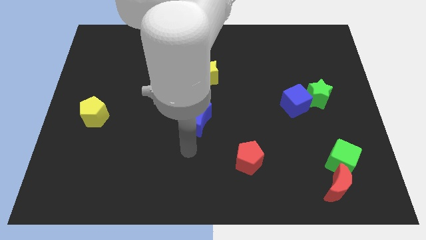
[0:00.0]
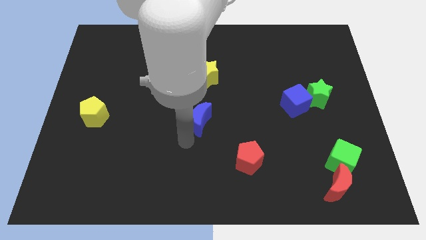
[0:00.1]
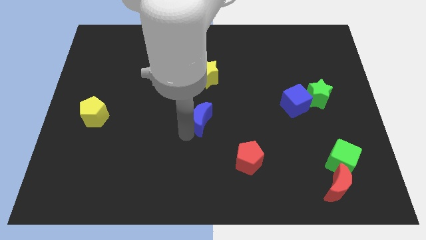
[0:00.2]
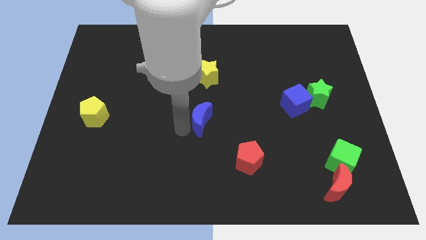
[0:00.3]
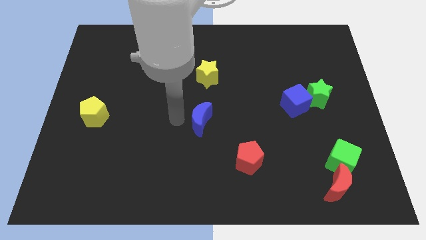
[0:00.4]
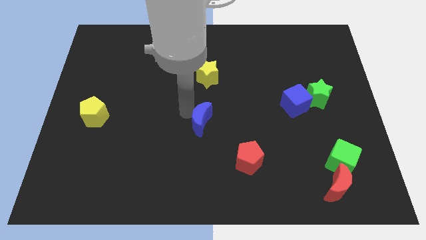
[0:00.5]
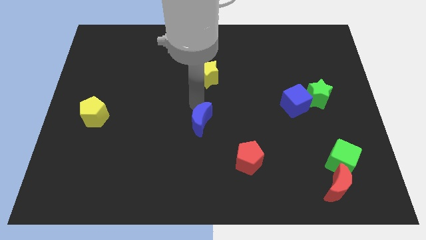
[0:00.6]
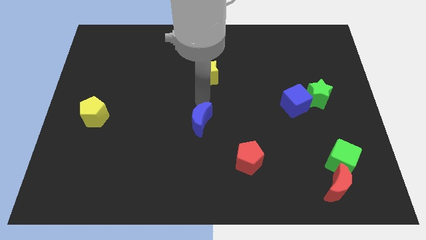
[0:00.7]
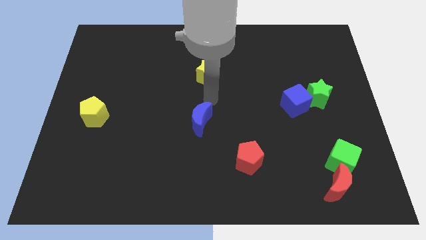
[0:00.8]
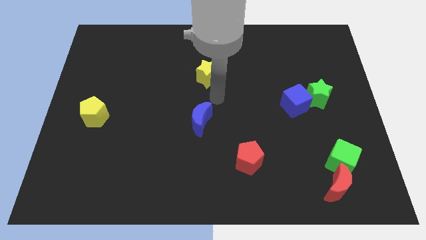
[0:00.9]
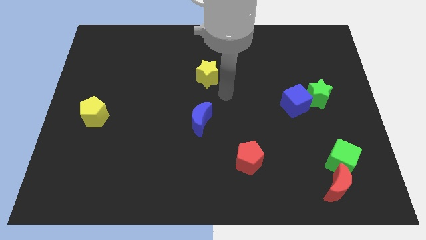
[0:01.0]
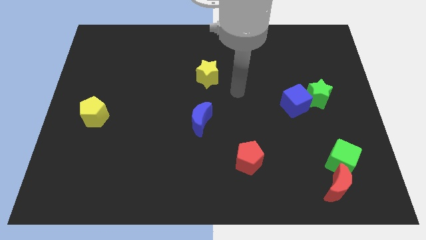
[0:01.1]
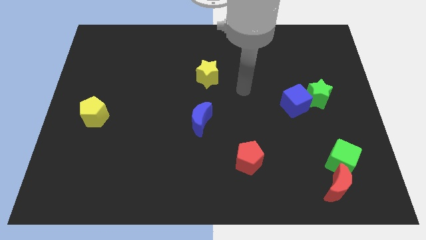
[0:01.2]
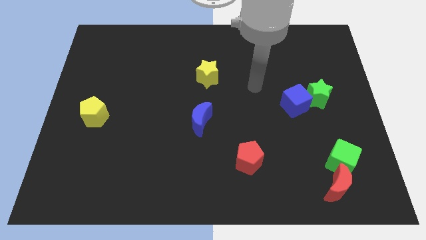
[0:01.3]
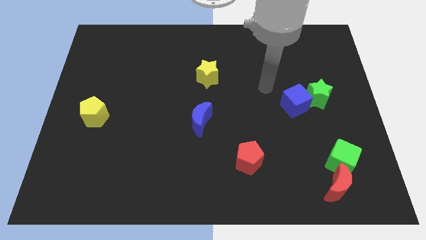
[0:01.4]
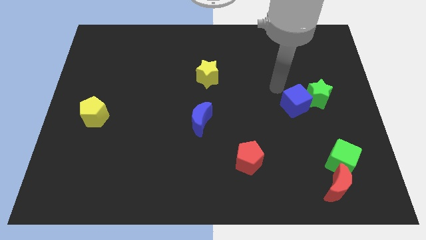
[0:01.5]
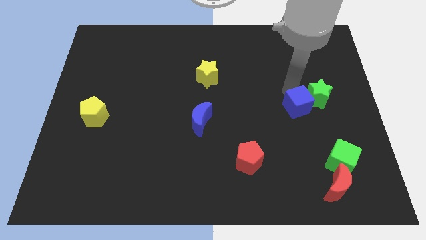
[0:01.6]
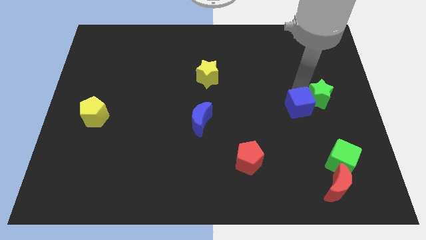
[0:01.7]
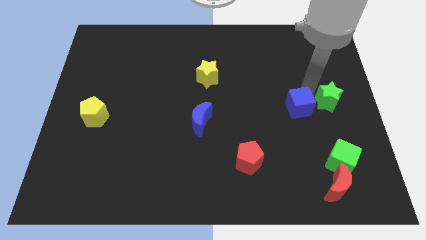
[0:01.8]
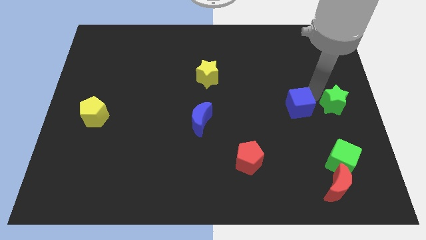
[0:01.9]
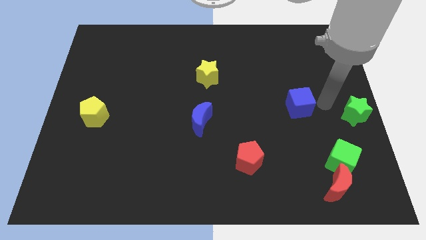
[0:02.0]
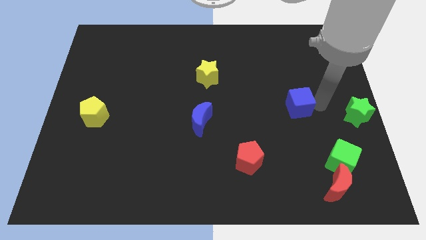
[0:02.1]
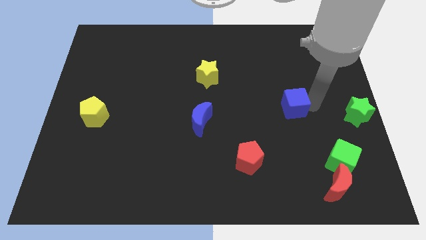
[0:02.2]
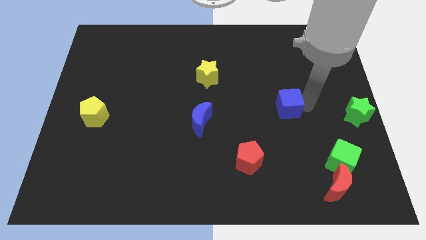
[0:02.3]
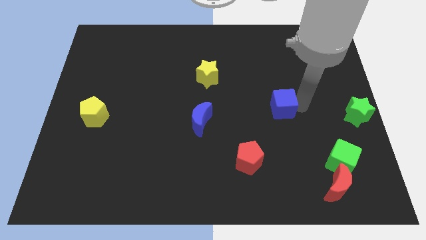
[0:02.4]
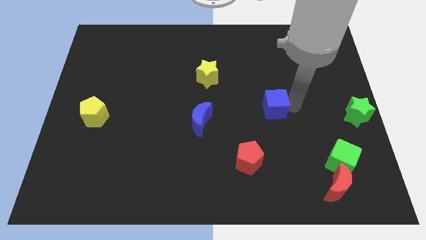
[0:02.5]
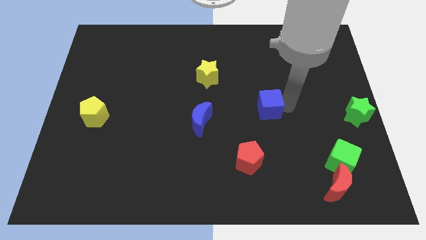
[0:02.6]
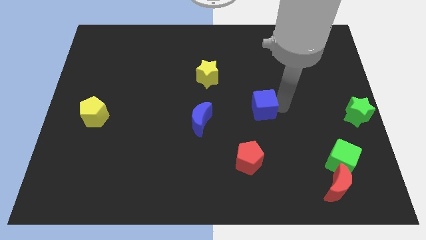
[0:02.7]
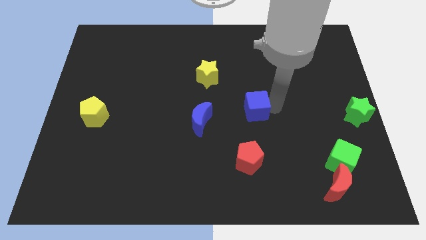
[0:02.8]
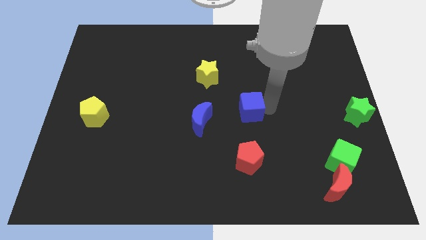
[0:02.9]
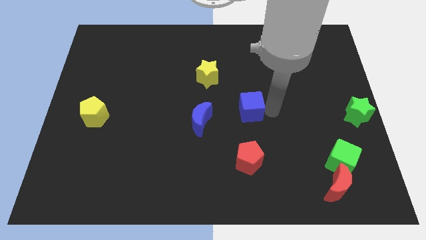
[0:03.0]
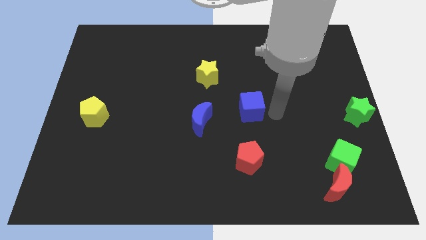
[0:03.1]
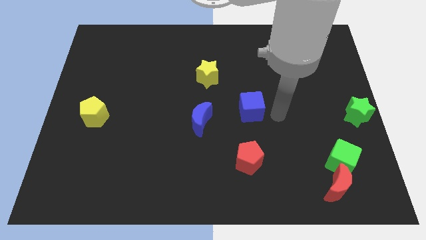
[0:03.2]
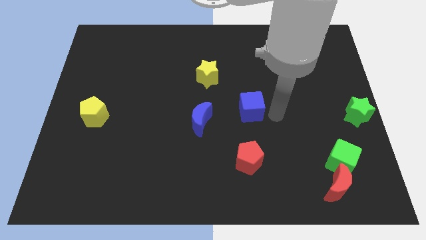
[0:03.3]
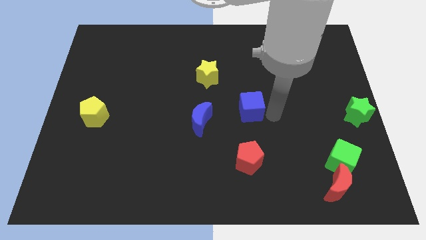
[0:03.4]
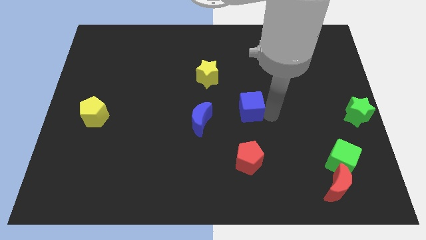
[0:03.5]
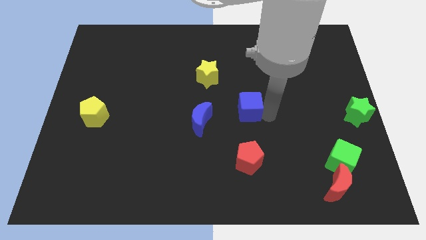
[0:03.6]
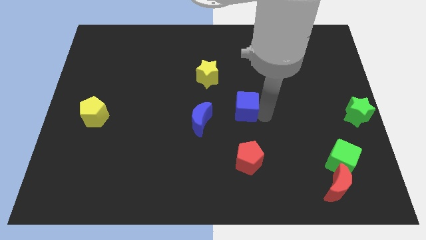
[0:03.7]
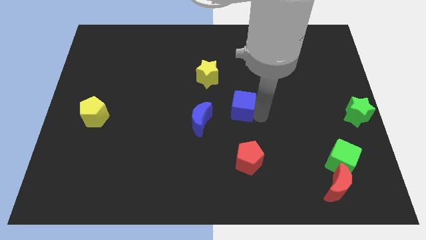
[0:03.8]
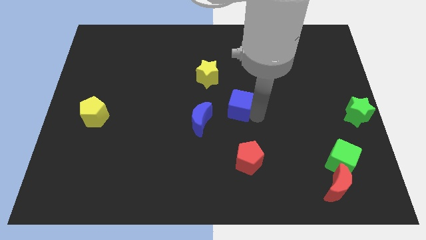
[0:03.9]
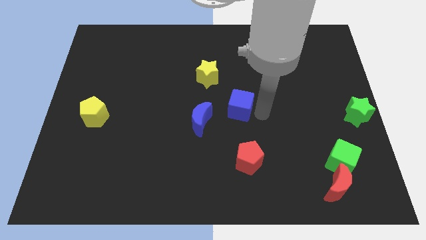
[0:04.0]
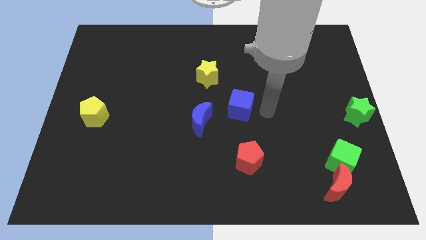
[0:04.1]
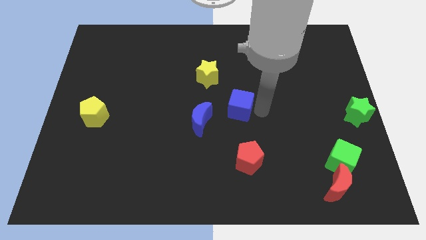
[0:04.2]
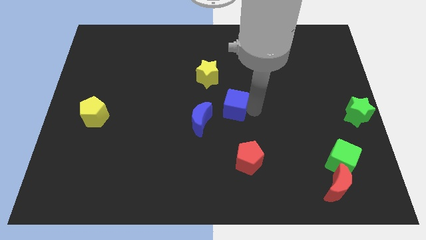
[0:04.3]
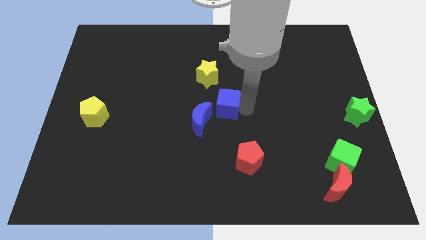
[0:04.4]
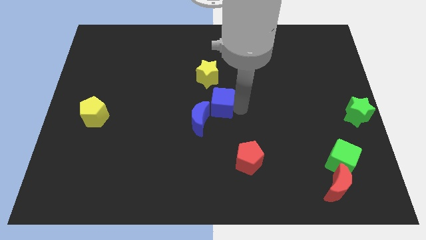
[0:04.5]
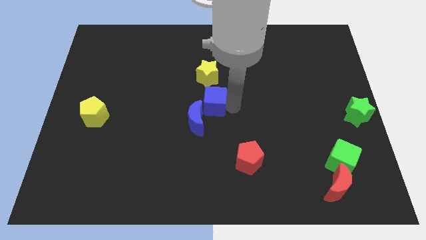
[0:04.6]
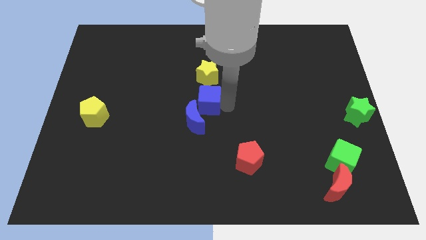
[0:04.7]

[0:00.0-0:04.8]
push the blue cube to the left

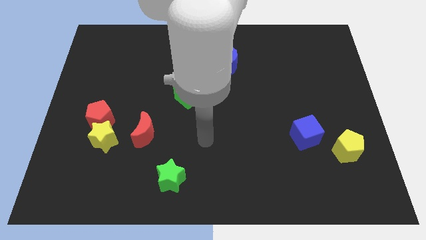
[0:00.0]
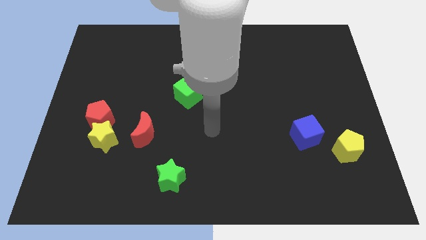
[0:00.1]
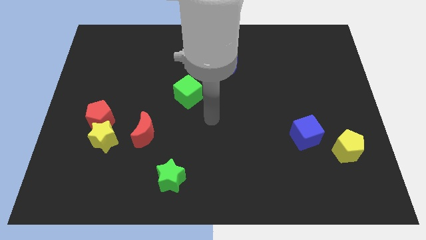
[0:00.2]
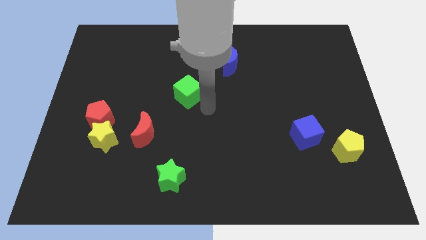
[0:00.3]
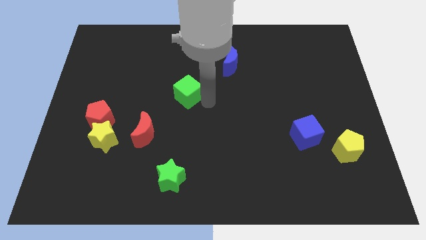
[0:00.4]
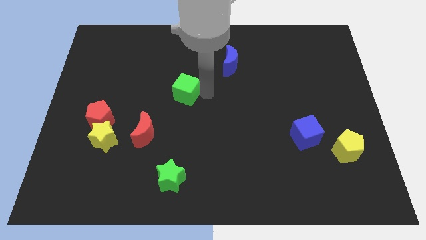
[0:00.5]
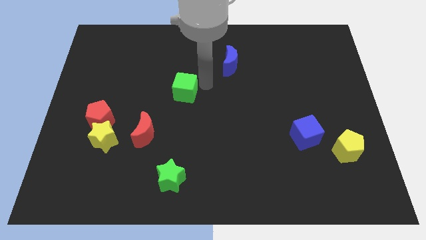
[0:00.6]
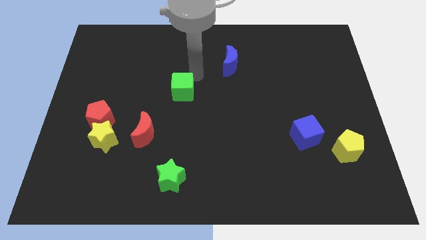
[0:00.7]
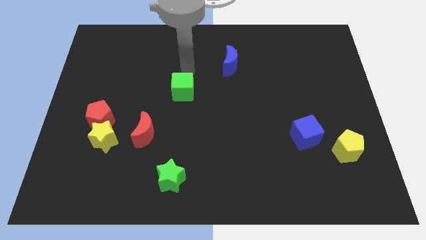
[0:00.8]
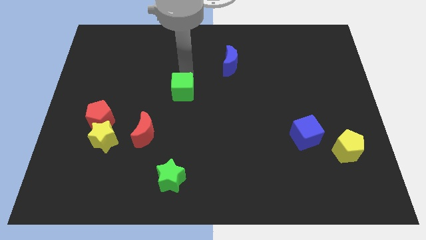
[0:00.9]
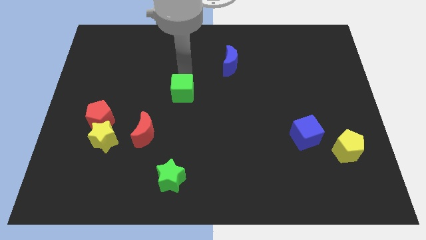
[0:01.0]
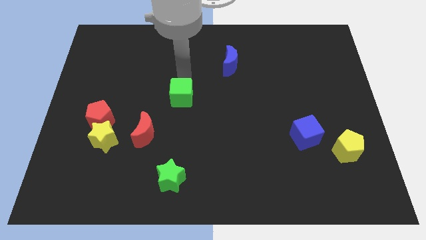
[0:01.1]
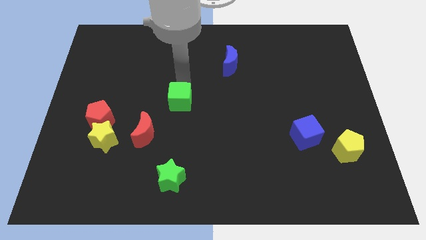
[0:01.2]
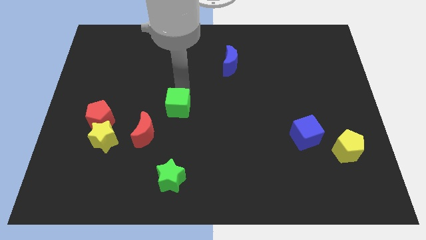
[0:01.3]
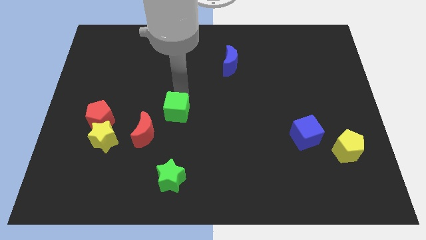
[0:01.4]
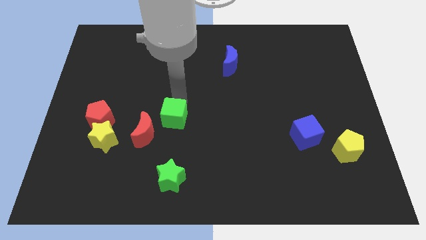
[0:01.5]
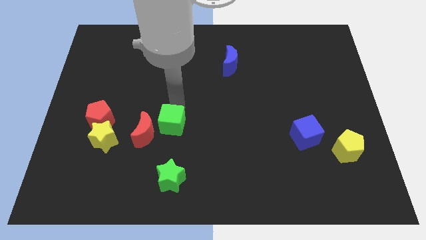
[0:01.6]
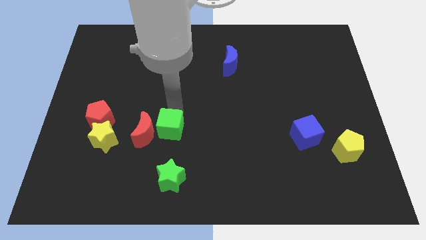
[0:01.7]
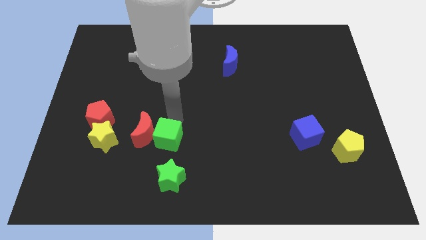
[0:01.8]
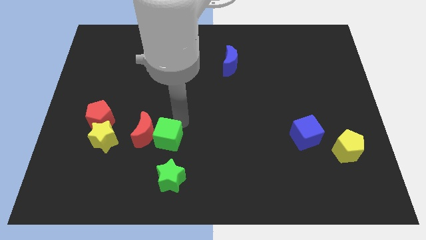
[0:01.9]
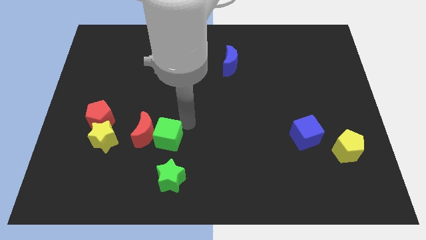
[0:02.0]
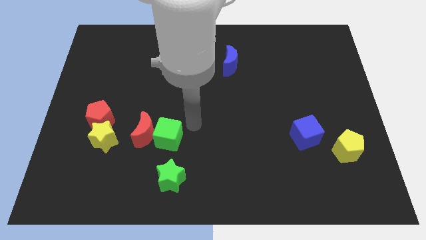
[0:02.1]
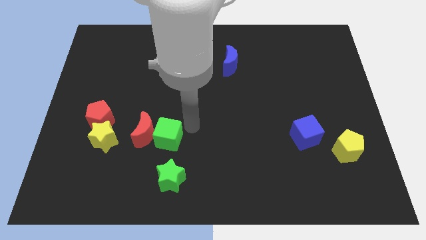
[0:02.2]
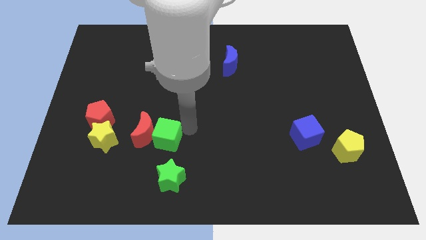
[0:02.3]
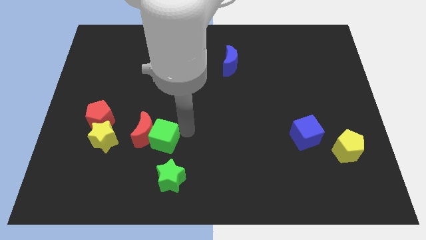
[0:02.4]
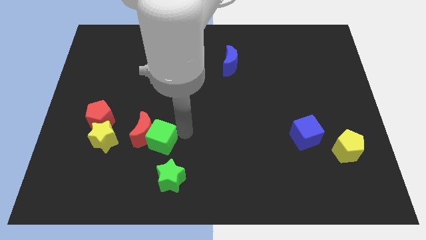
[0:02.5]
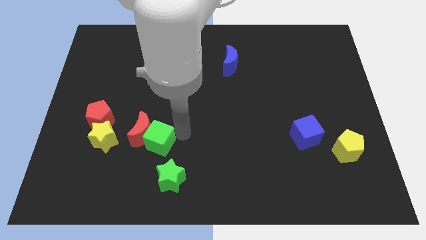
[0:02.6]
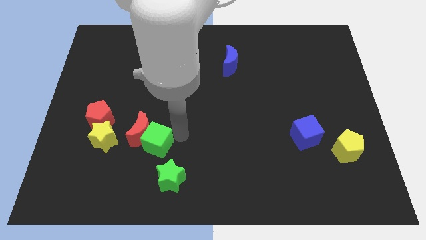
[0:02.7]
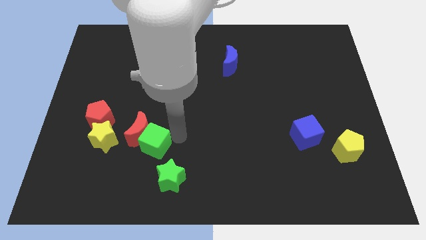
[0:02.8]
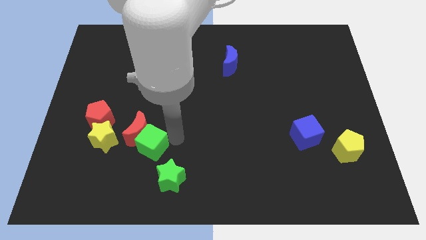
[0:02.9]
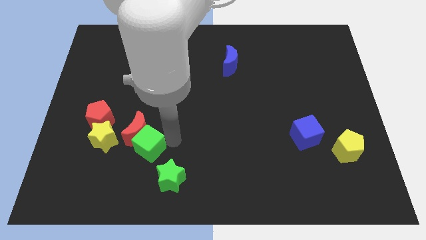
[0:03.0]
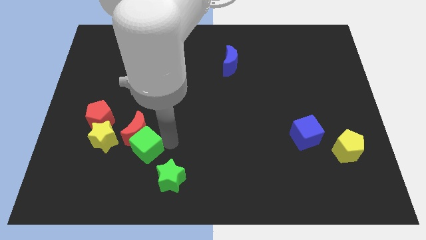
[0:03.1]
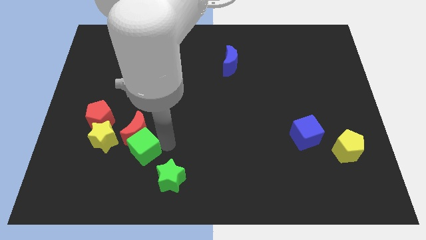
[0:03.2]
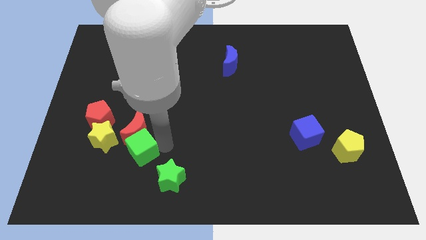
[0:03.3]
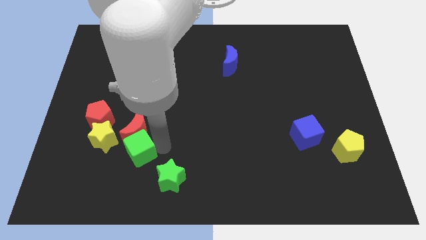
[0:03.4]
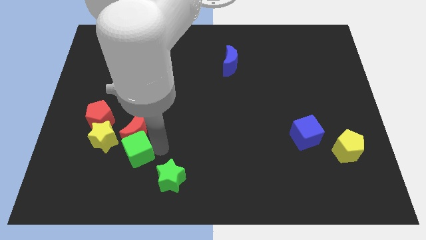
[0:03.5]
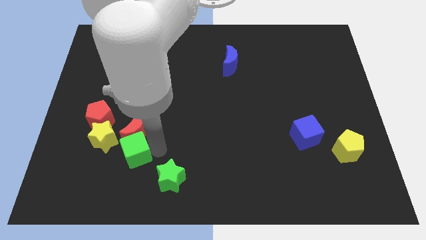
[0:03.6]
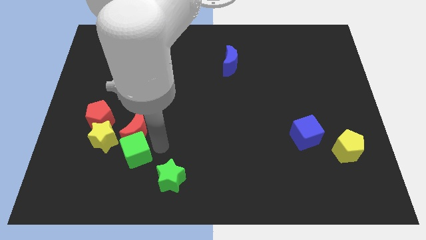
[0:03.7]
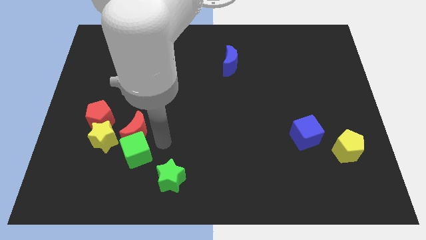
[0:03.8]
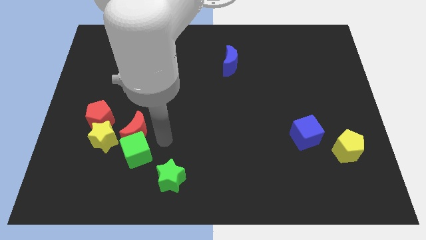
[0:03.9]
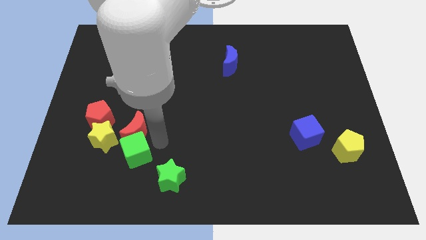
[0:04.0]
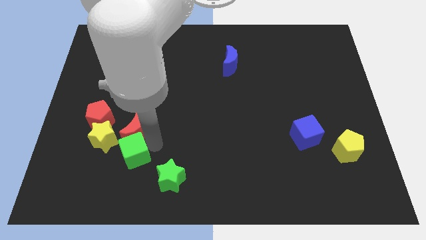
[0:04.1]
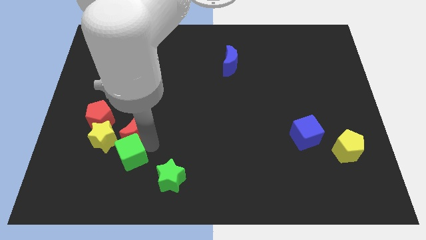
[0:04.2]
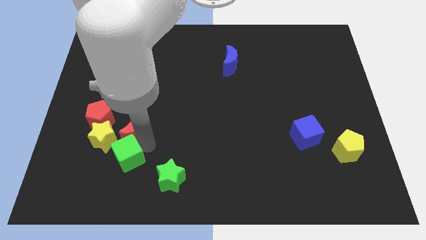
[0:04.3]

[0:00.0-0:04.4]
slide the green cube downwards and then left
